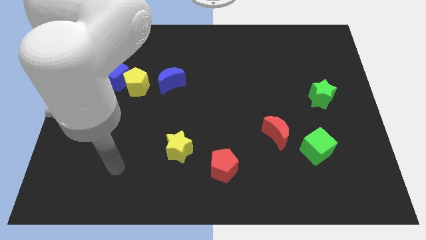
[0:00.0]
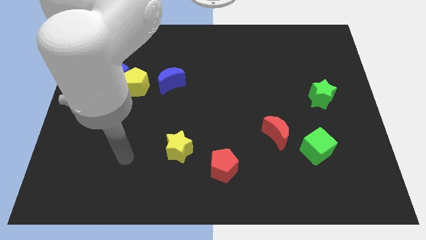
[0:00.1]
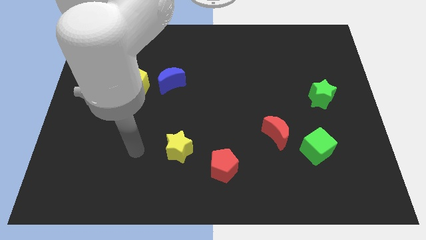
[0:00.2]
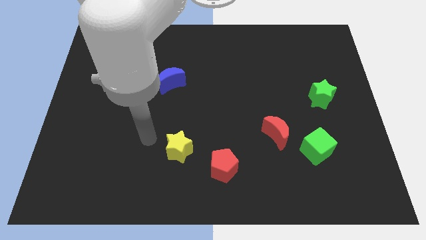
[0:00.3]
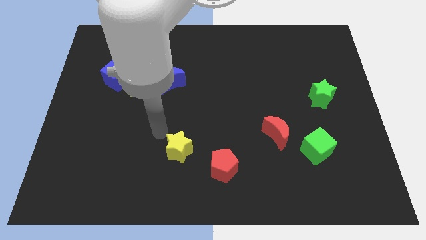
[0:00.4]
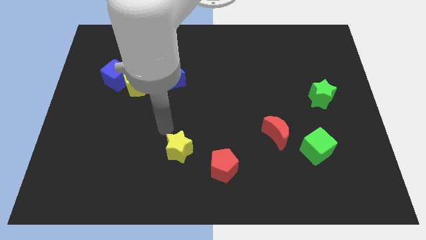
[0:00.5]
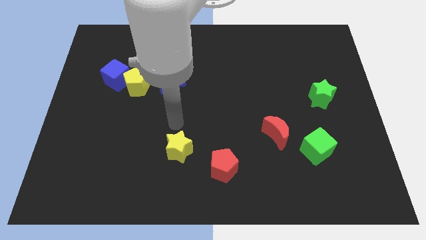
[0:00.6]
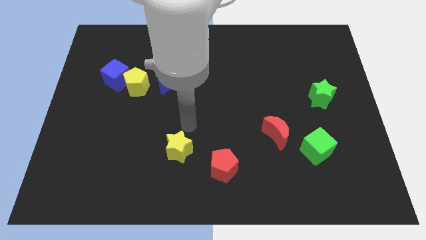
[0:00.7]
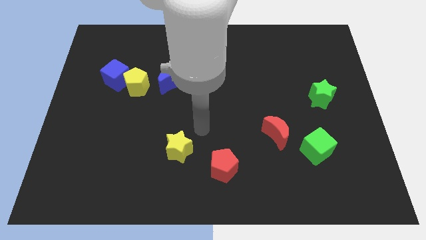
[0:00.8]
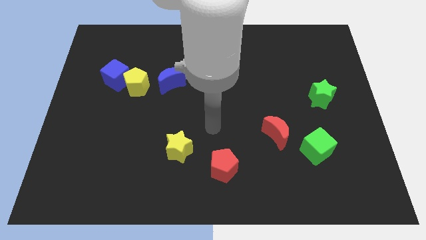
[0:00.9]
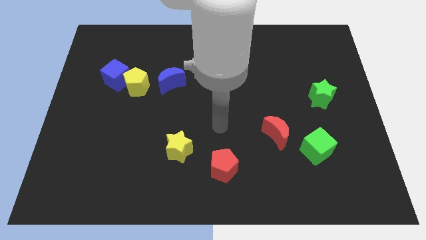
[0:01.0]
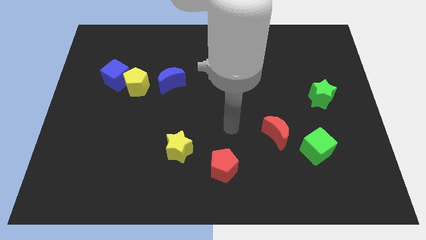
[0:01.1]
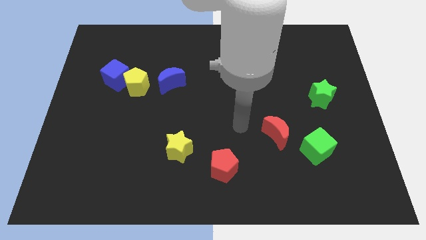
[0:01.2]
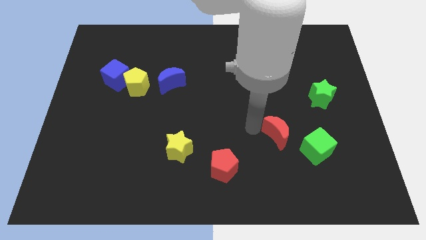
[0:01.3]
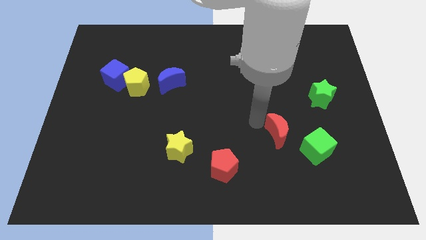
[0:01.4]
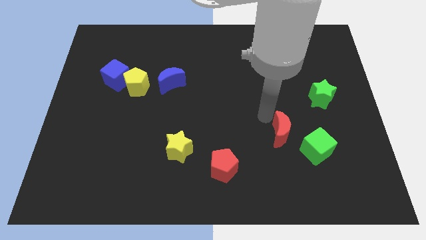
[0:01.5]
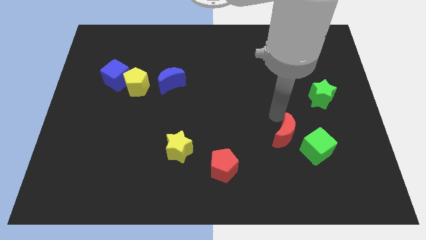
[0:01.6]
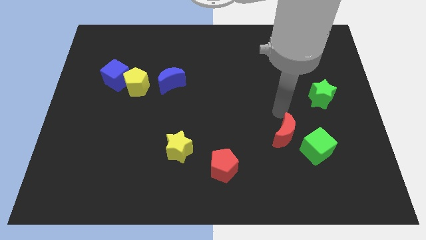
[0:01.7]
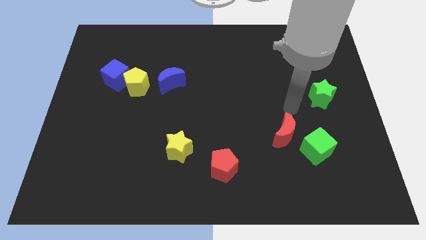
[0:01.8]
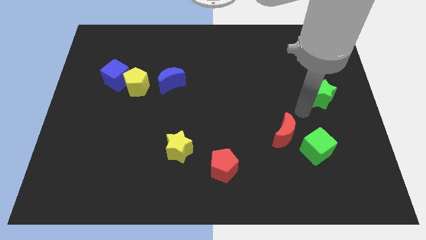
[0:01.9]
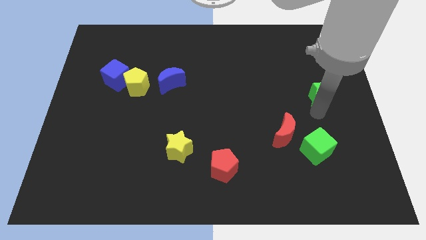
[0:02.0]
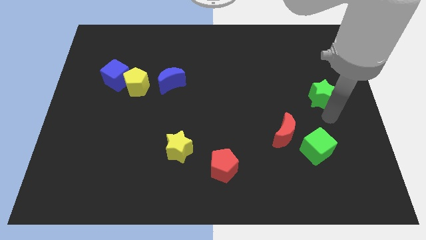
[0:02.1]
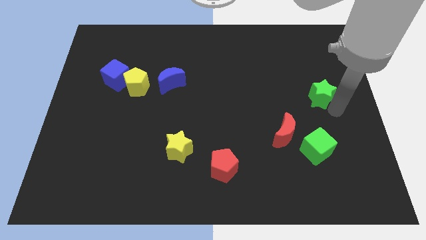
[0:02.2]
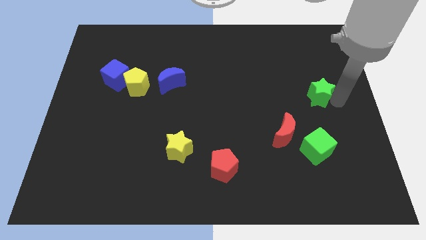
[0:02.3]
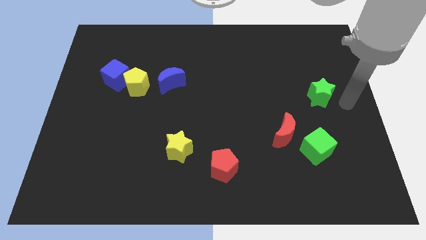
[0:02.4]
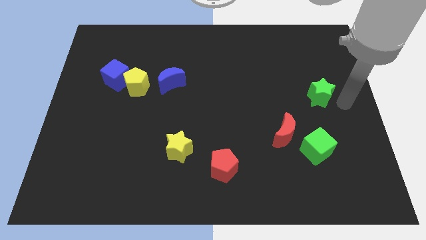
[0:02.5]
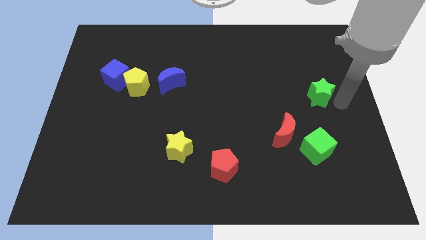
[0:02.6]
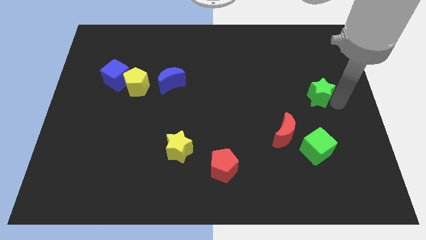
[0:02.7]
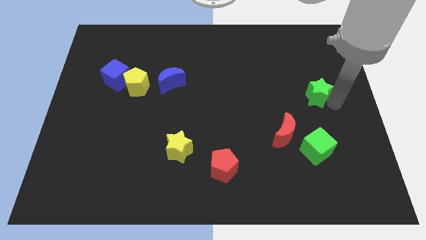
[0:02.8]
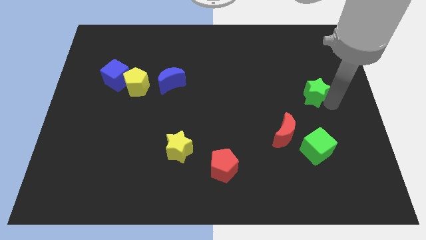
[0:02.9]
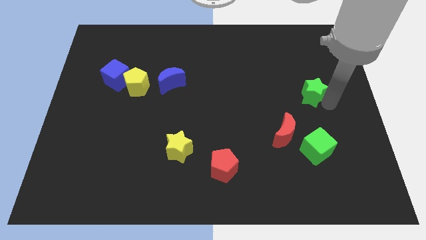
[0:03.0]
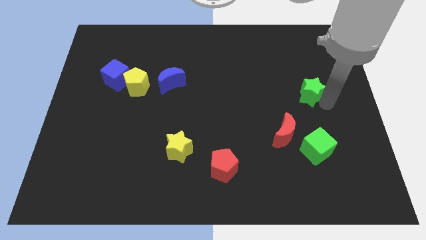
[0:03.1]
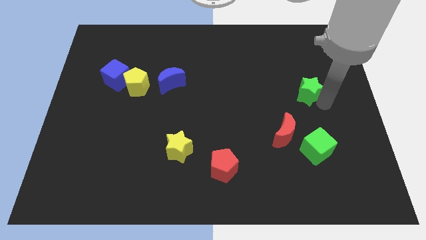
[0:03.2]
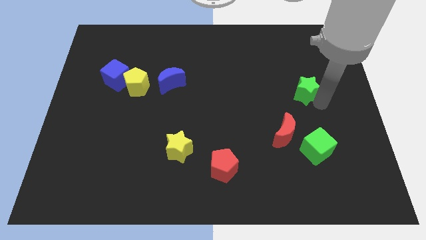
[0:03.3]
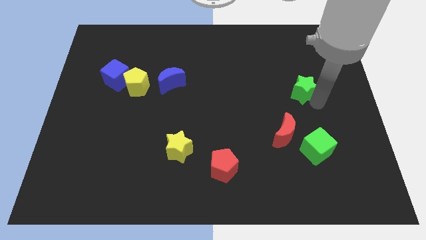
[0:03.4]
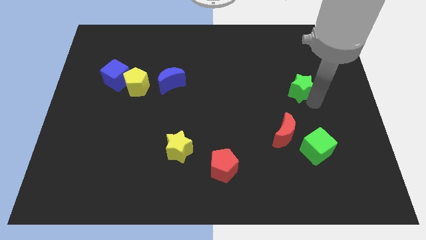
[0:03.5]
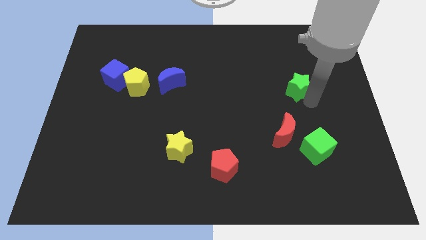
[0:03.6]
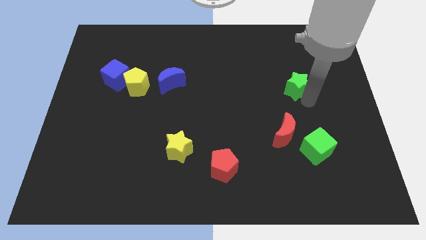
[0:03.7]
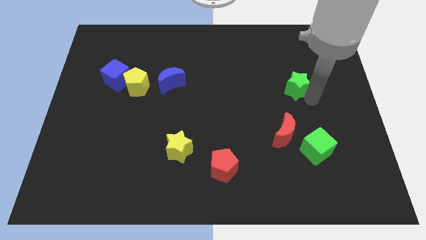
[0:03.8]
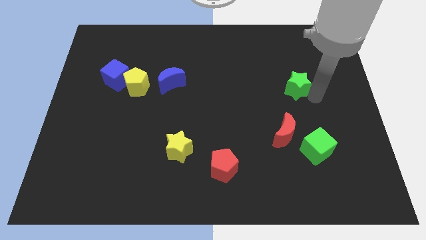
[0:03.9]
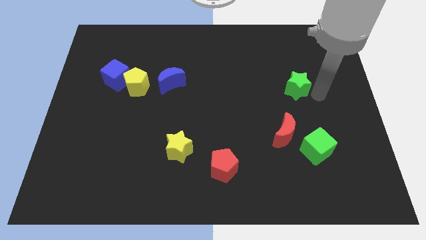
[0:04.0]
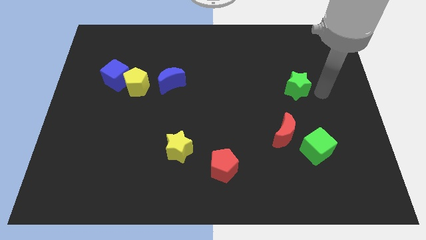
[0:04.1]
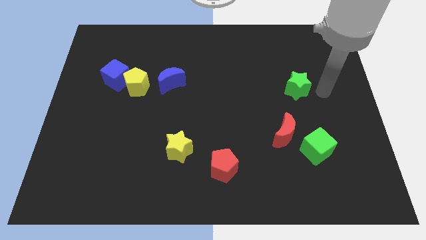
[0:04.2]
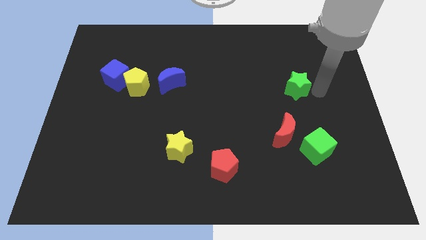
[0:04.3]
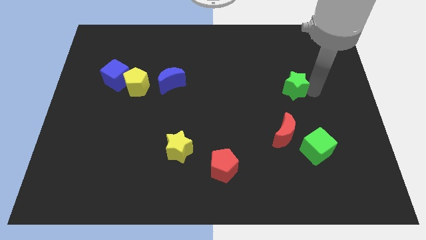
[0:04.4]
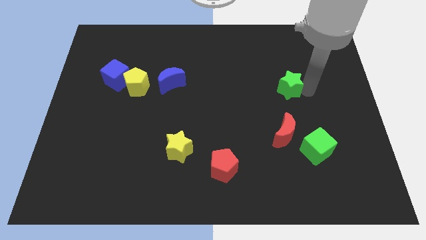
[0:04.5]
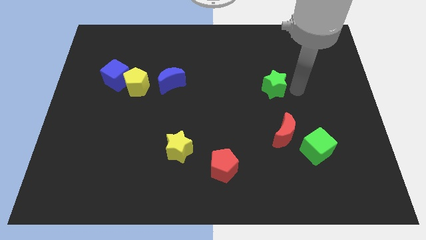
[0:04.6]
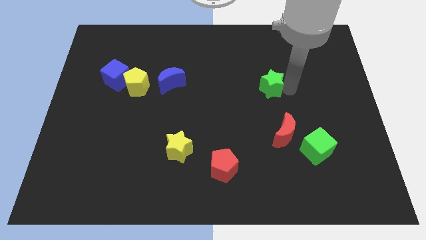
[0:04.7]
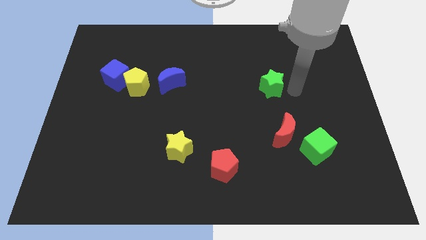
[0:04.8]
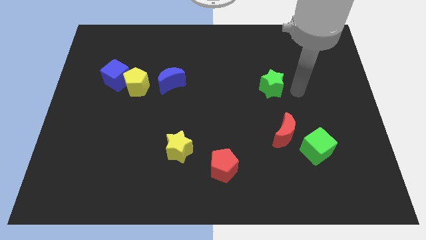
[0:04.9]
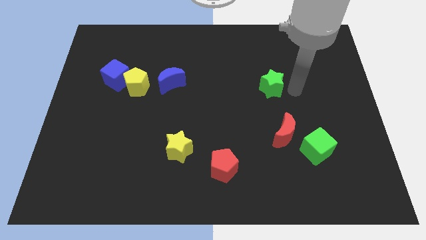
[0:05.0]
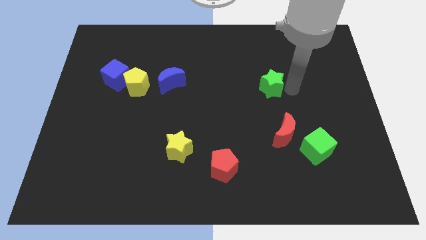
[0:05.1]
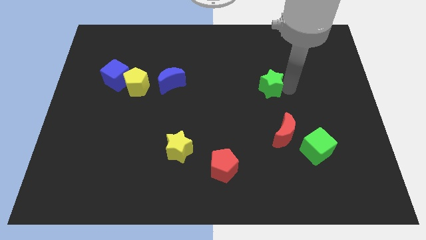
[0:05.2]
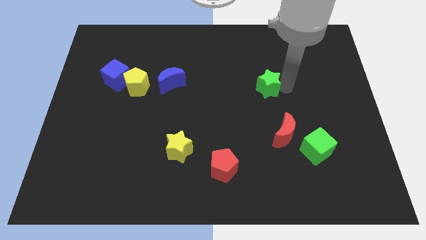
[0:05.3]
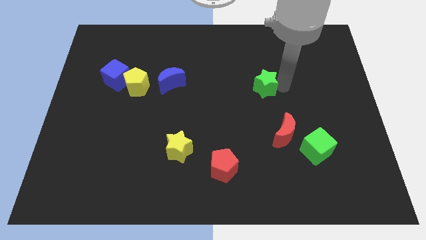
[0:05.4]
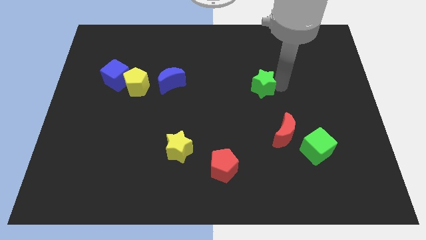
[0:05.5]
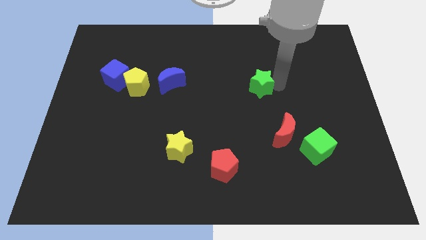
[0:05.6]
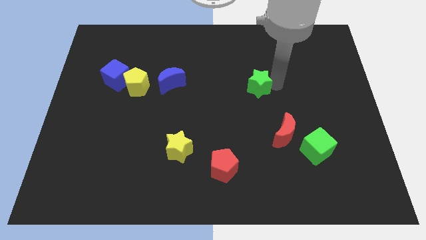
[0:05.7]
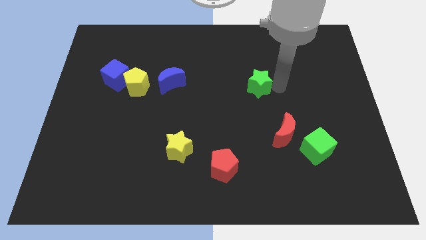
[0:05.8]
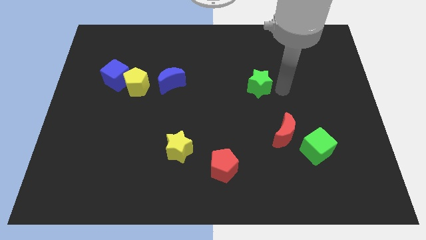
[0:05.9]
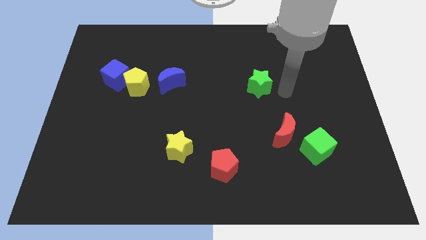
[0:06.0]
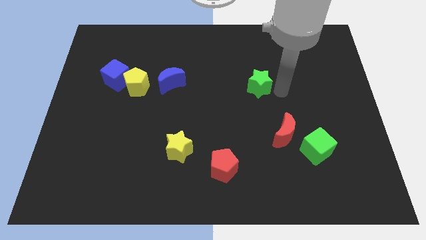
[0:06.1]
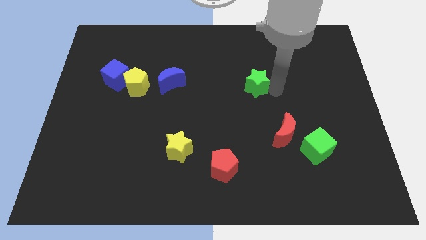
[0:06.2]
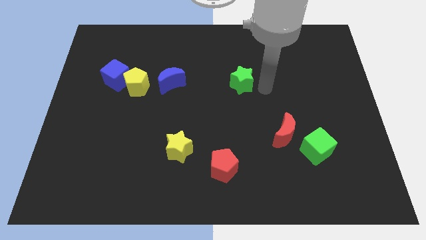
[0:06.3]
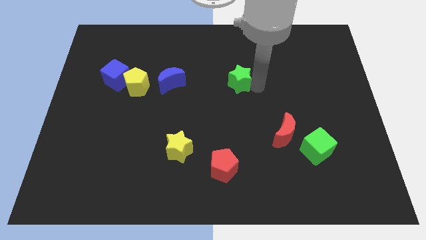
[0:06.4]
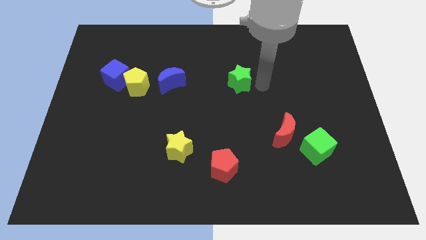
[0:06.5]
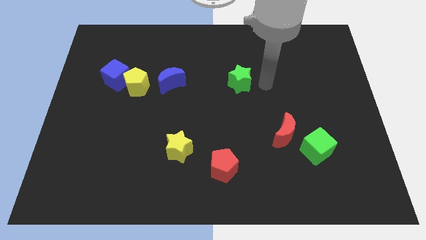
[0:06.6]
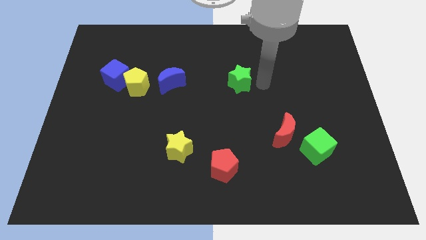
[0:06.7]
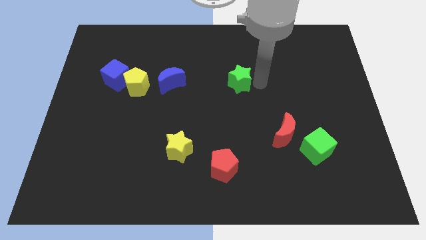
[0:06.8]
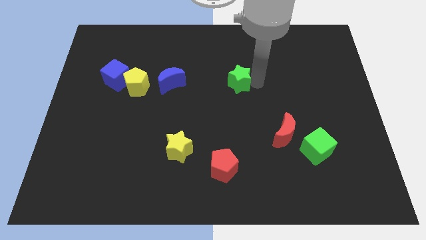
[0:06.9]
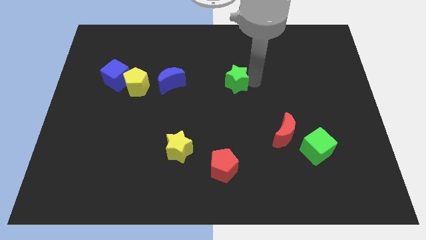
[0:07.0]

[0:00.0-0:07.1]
slide the green star right of the blue moon

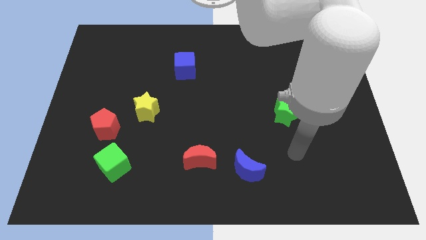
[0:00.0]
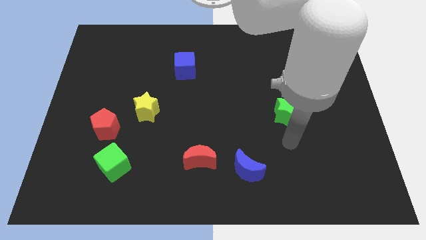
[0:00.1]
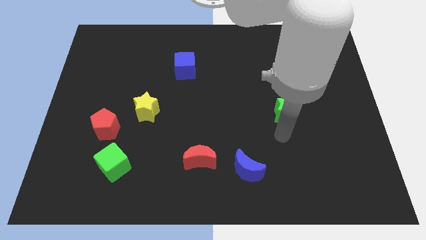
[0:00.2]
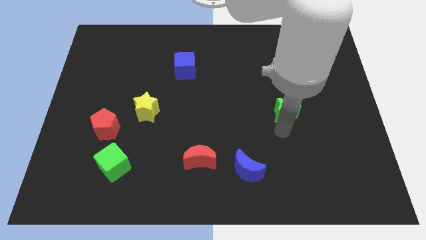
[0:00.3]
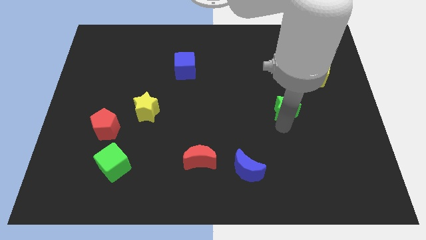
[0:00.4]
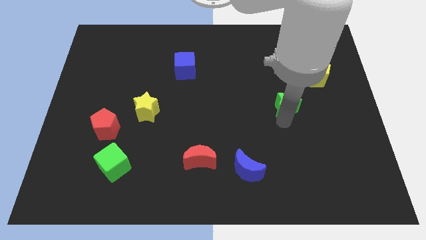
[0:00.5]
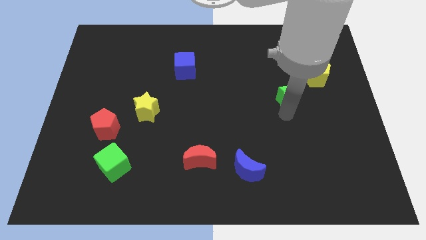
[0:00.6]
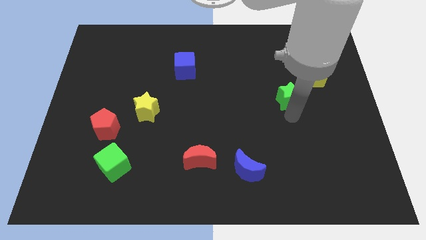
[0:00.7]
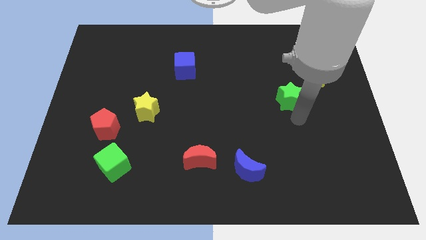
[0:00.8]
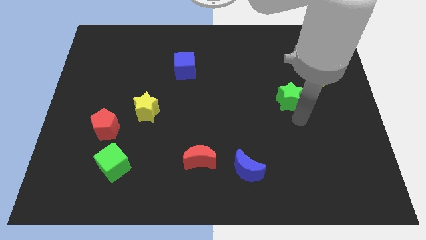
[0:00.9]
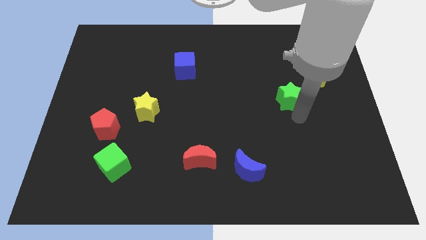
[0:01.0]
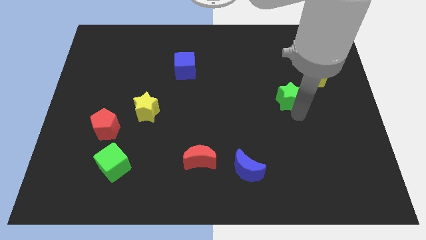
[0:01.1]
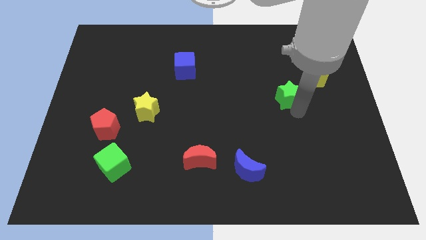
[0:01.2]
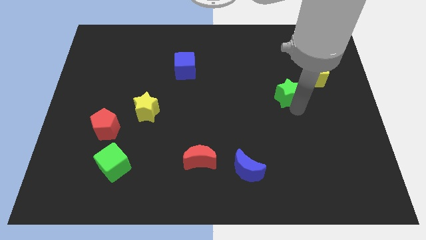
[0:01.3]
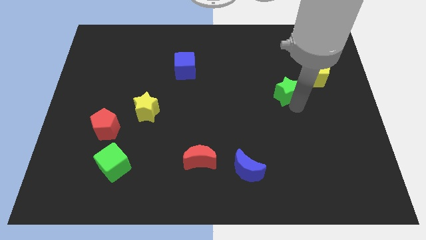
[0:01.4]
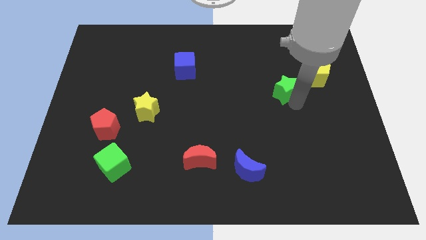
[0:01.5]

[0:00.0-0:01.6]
push the green star to the left side of the yellow pentagon
